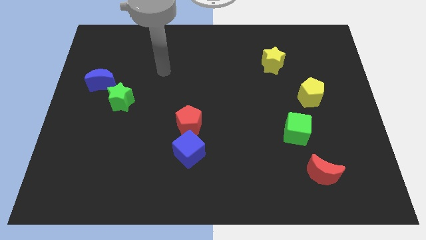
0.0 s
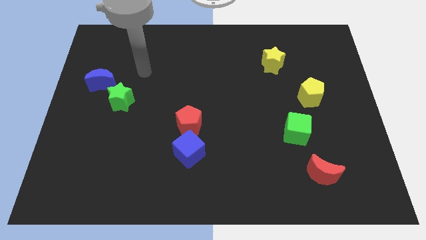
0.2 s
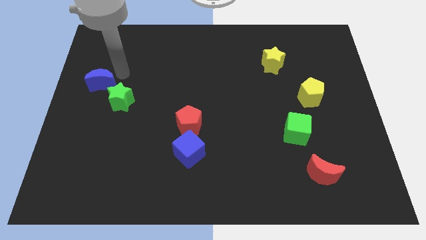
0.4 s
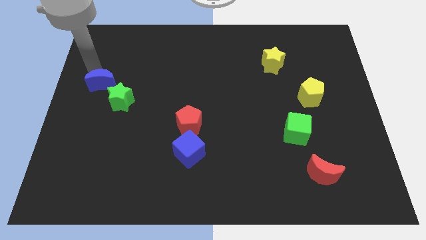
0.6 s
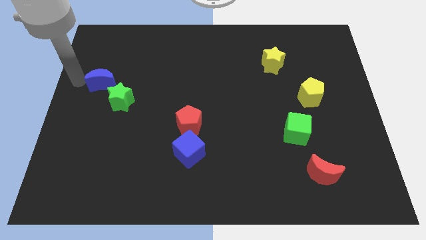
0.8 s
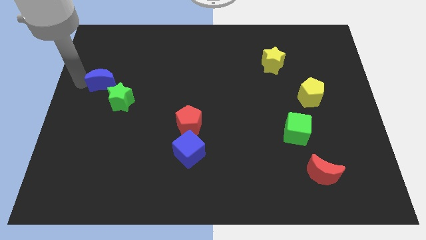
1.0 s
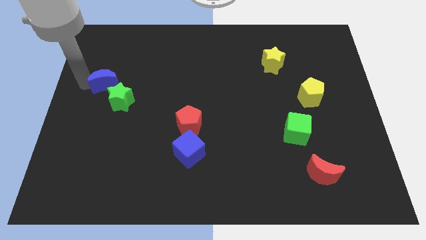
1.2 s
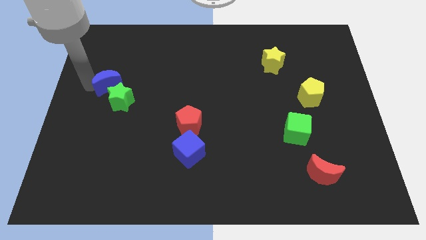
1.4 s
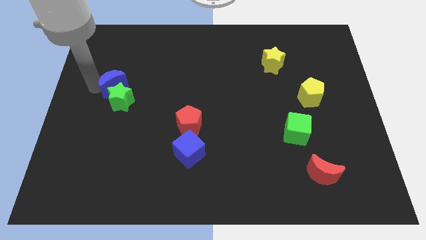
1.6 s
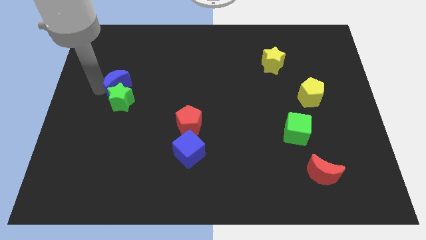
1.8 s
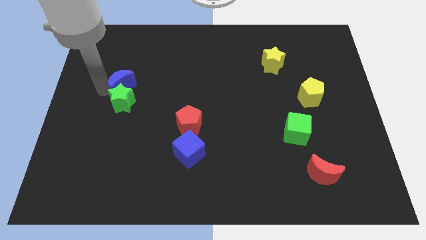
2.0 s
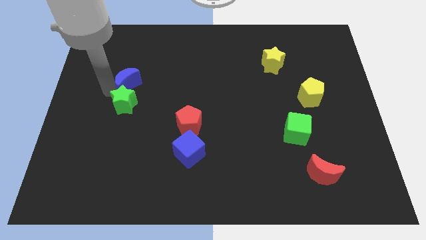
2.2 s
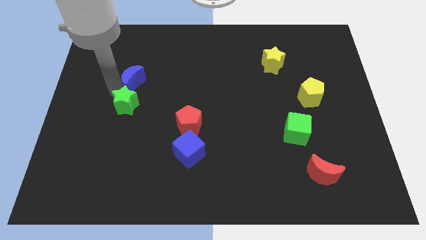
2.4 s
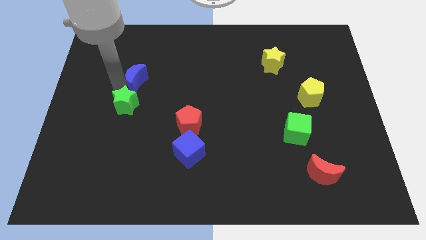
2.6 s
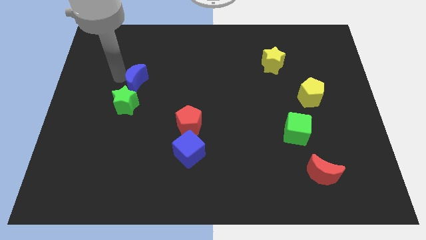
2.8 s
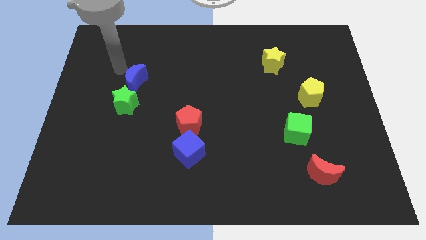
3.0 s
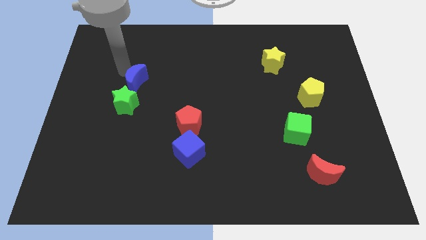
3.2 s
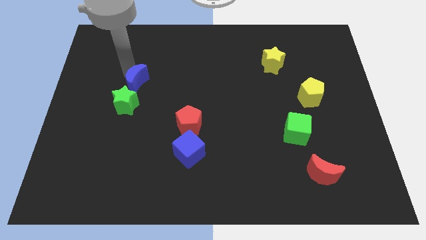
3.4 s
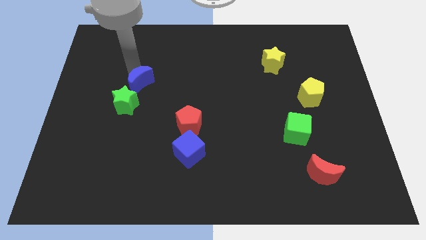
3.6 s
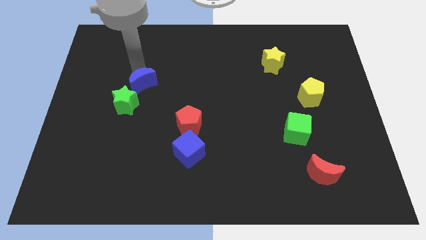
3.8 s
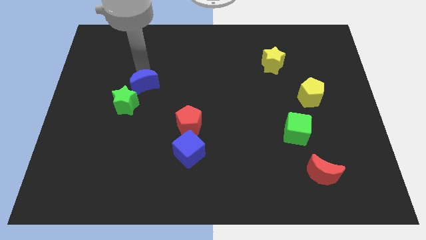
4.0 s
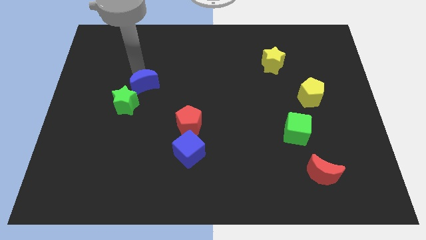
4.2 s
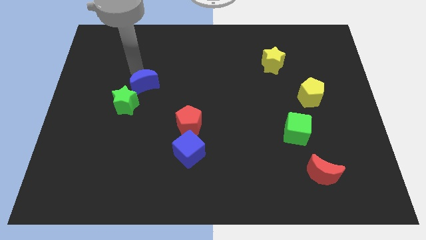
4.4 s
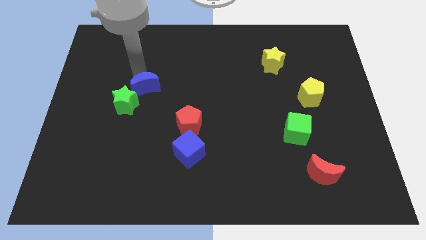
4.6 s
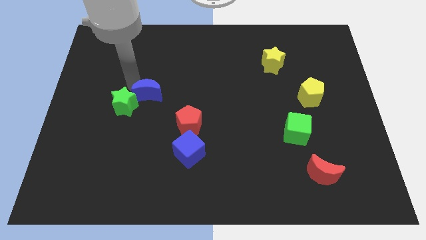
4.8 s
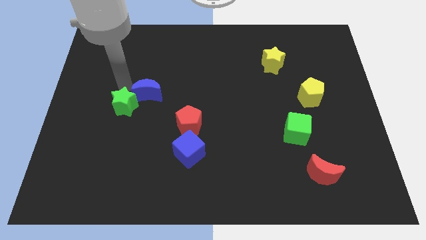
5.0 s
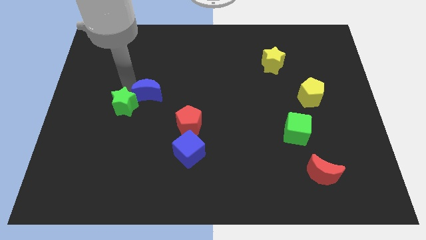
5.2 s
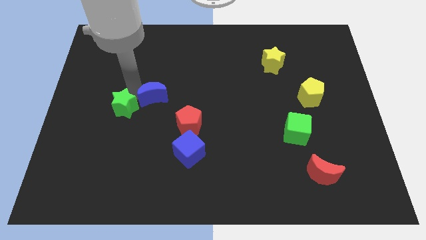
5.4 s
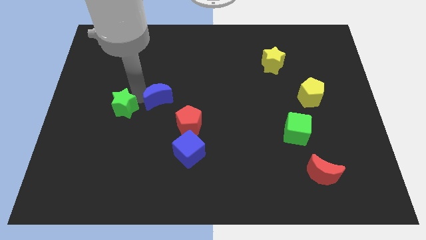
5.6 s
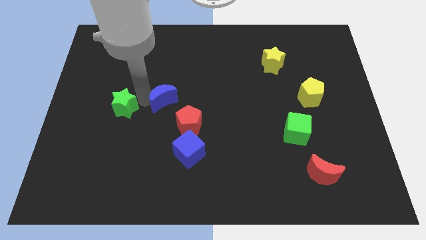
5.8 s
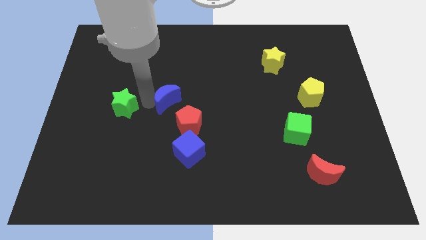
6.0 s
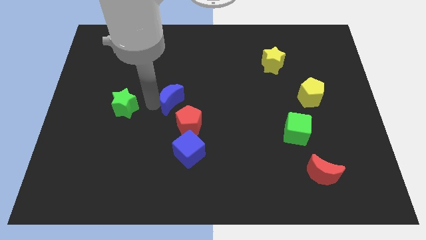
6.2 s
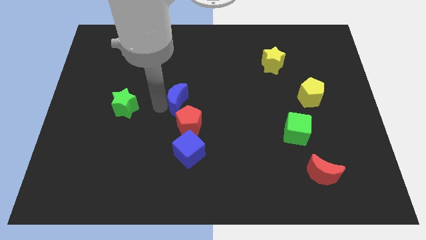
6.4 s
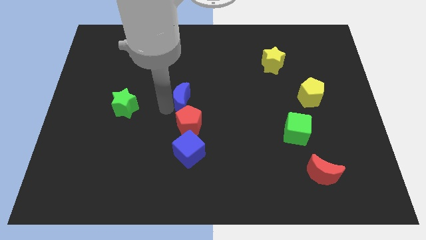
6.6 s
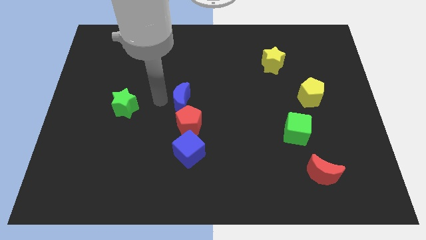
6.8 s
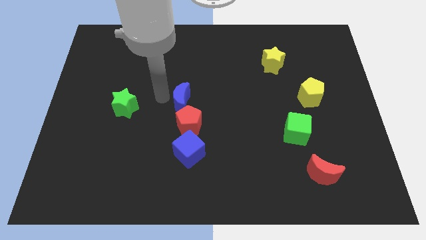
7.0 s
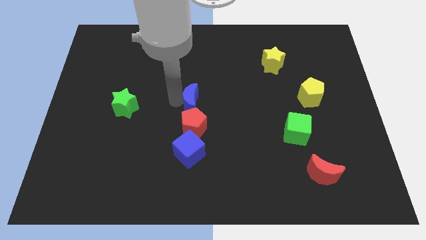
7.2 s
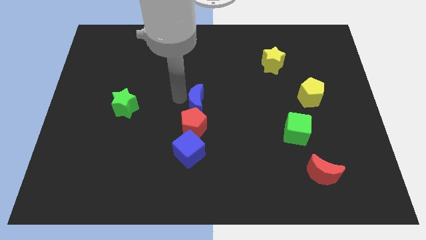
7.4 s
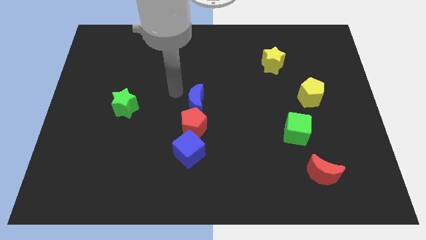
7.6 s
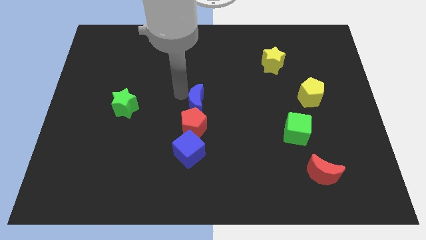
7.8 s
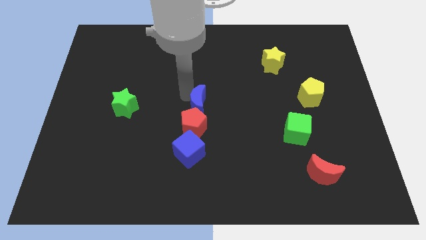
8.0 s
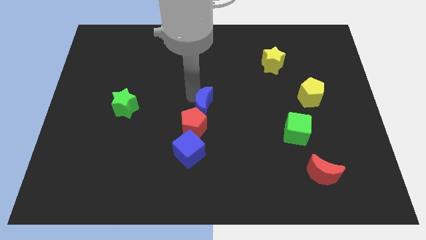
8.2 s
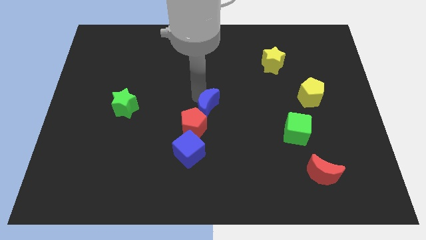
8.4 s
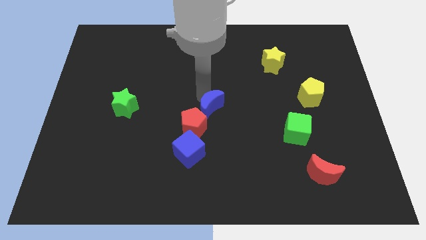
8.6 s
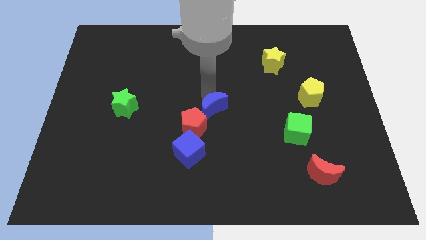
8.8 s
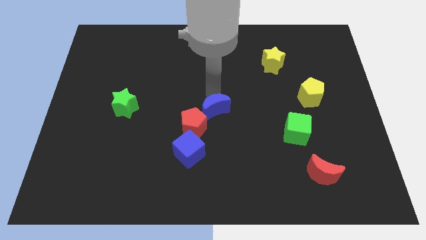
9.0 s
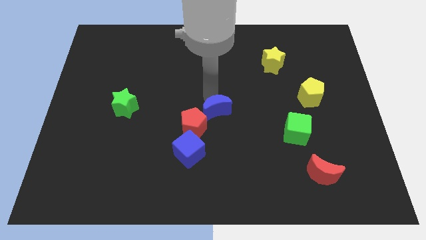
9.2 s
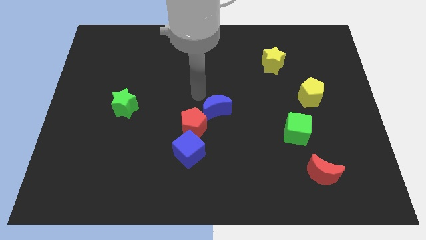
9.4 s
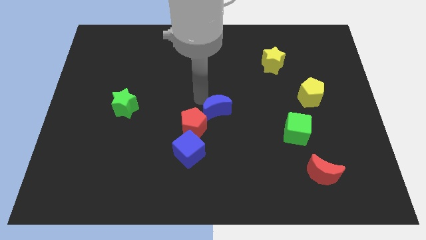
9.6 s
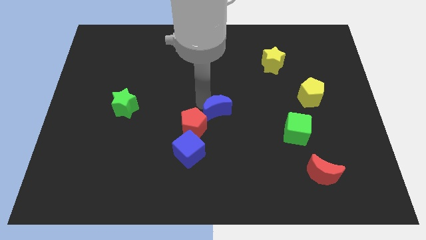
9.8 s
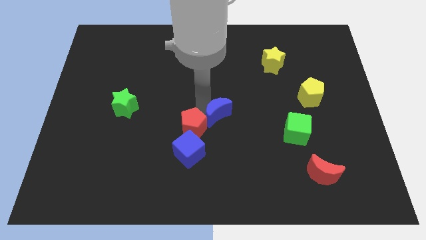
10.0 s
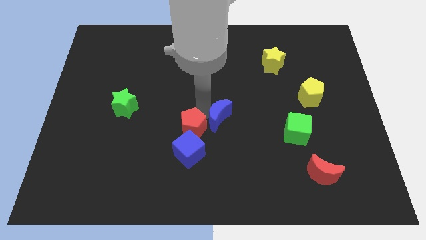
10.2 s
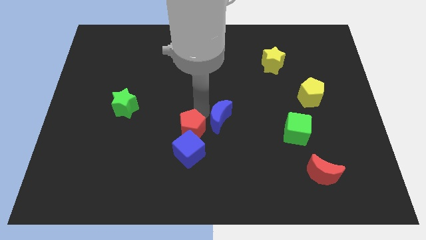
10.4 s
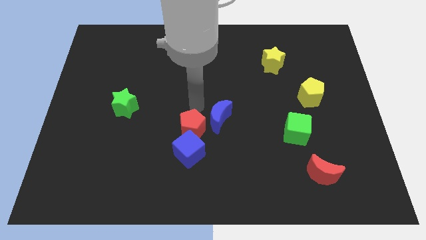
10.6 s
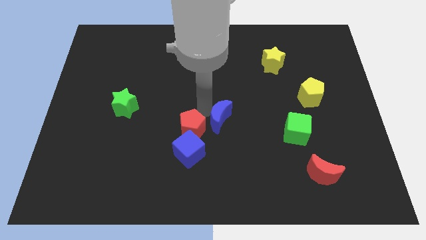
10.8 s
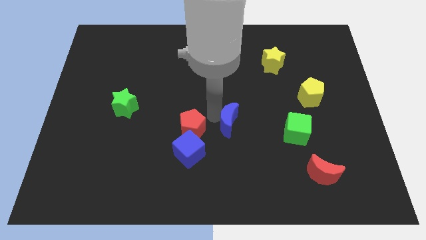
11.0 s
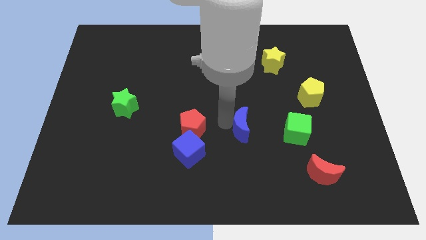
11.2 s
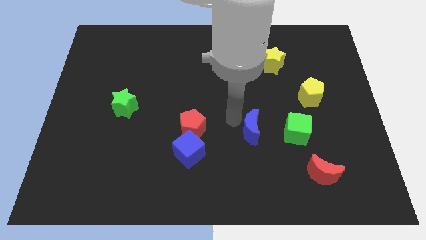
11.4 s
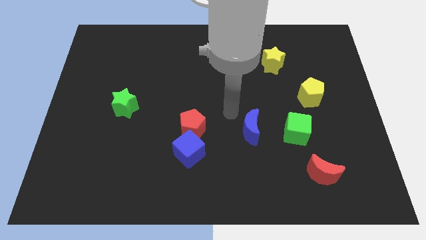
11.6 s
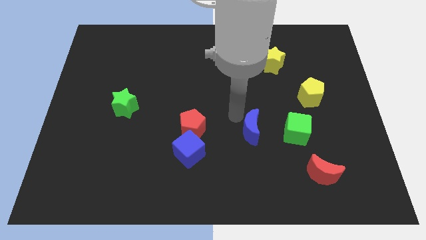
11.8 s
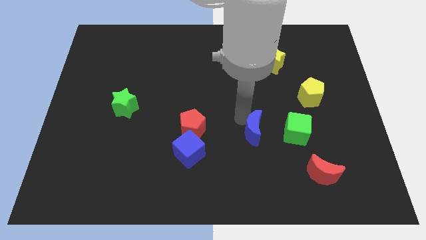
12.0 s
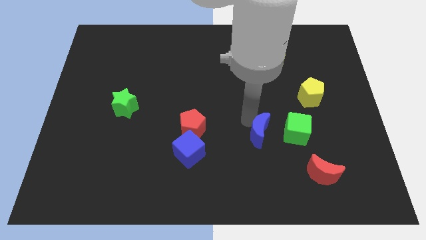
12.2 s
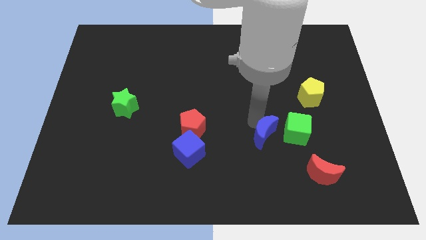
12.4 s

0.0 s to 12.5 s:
put the blue moon to the bottom left side of the green cube
